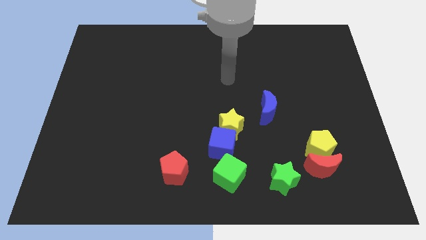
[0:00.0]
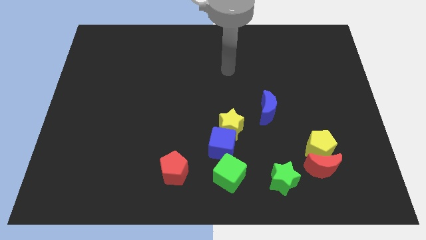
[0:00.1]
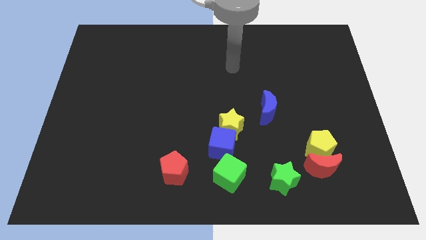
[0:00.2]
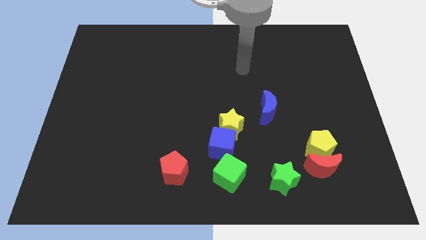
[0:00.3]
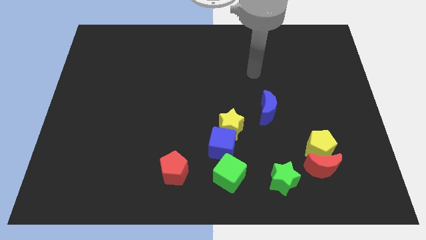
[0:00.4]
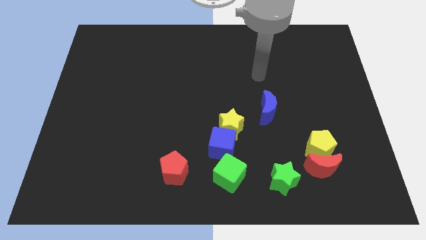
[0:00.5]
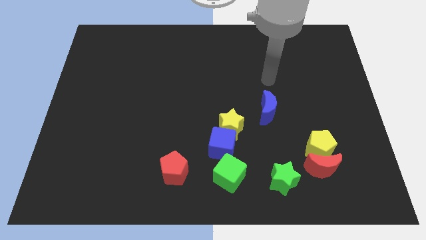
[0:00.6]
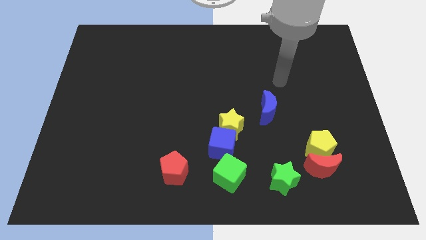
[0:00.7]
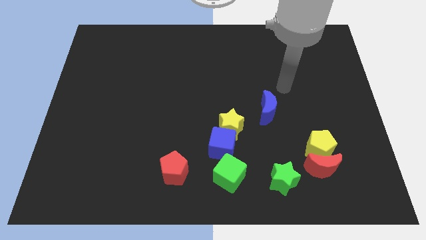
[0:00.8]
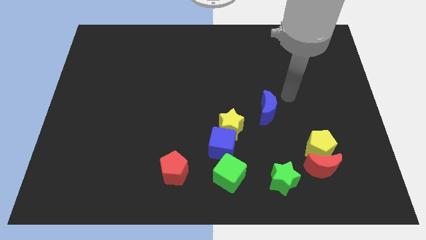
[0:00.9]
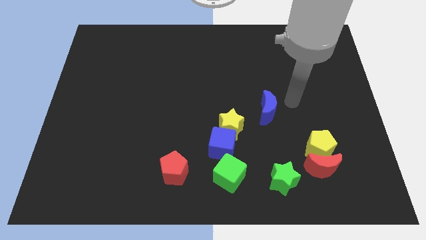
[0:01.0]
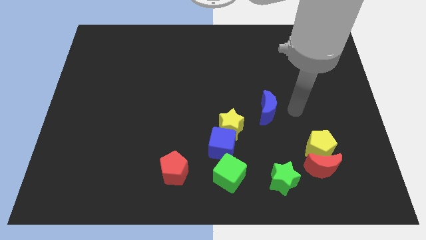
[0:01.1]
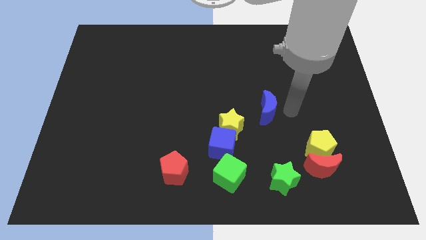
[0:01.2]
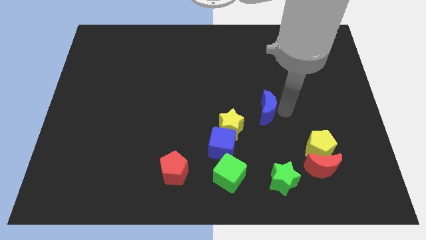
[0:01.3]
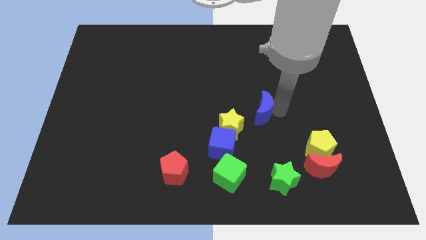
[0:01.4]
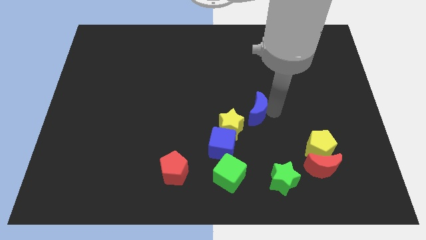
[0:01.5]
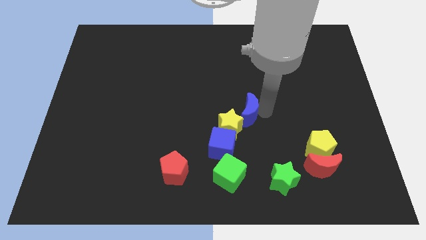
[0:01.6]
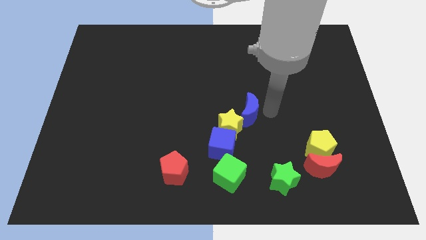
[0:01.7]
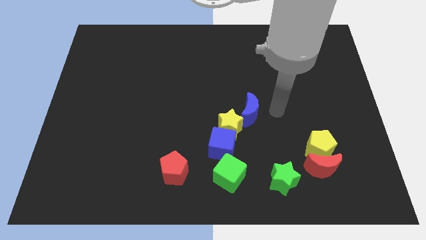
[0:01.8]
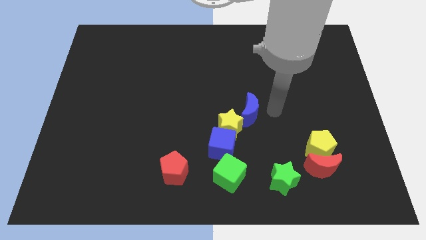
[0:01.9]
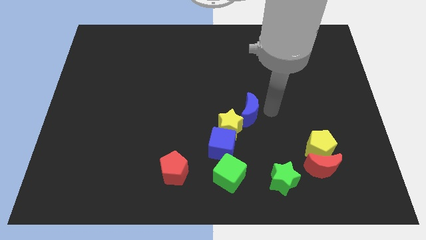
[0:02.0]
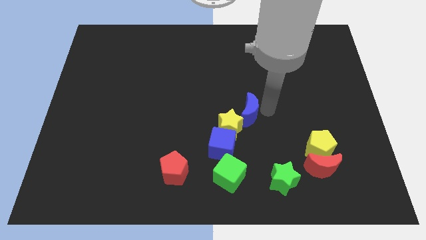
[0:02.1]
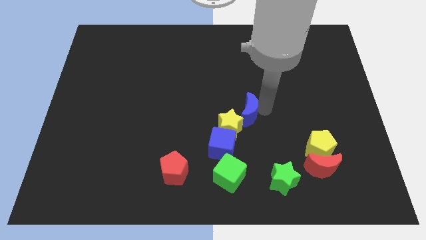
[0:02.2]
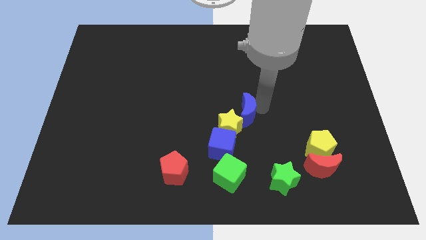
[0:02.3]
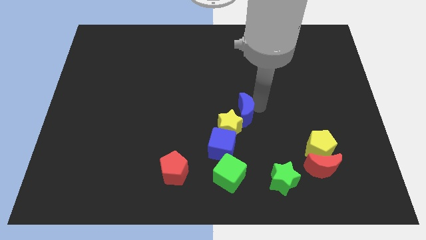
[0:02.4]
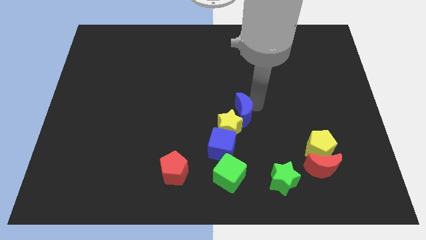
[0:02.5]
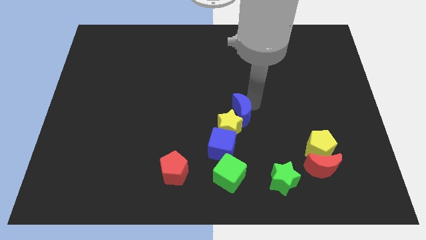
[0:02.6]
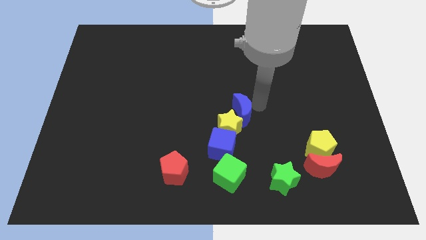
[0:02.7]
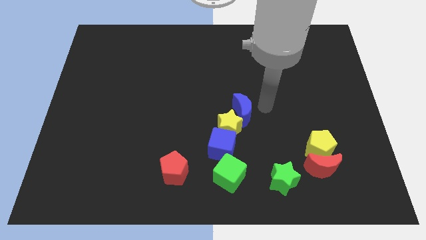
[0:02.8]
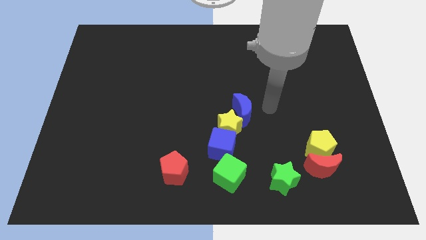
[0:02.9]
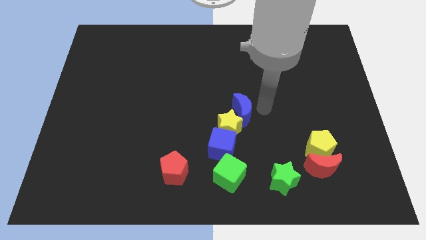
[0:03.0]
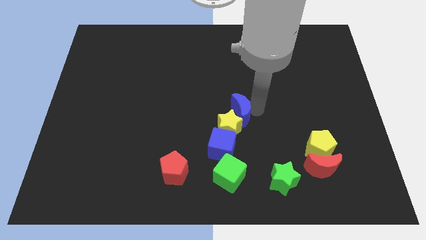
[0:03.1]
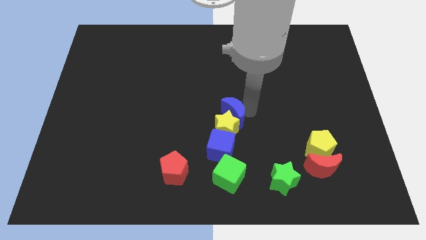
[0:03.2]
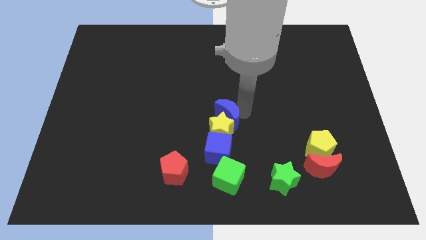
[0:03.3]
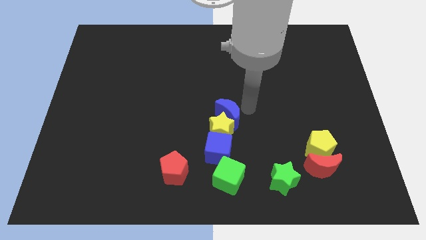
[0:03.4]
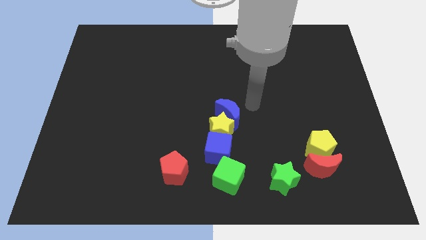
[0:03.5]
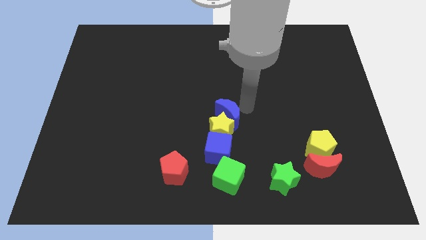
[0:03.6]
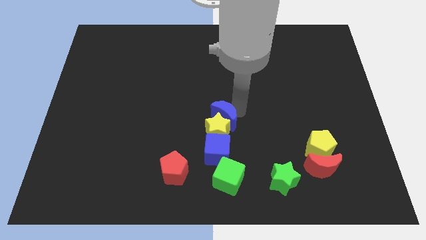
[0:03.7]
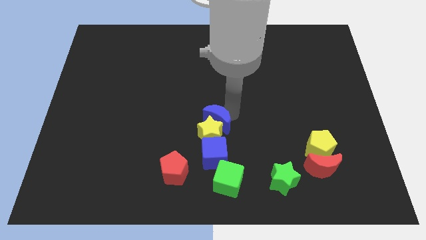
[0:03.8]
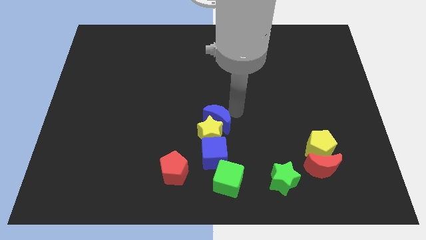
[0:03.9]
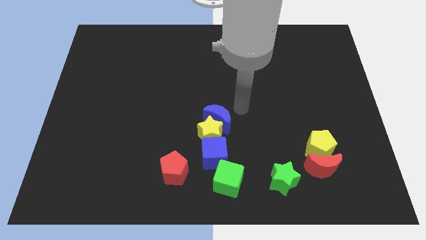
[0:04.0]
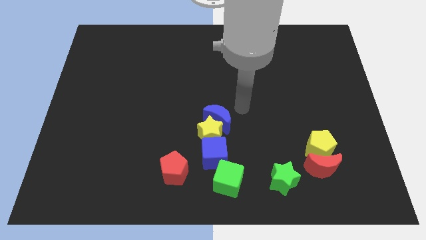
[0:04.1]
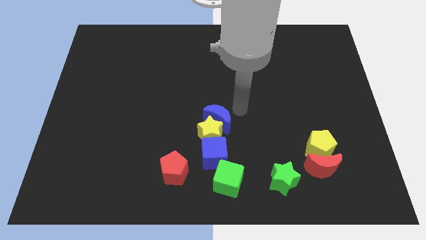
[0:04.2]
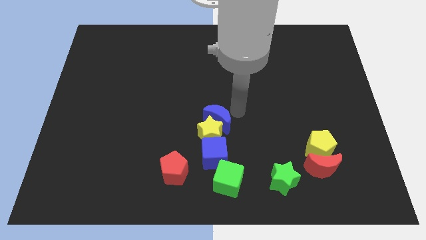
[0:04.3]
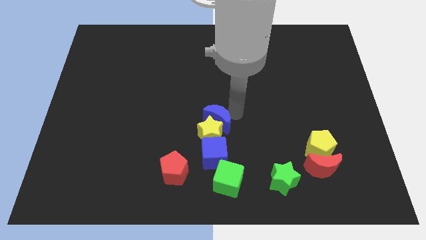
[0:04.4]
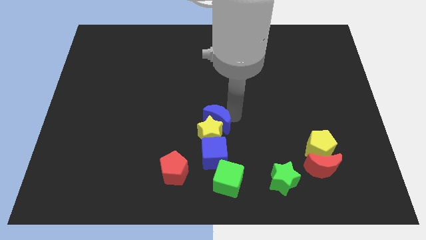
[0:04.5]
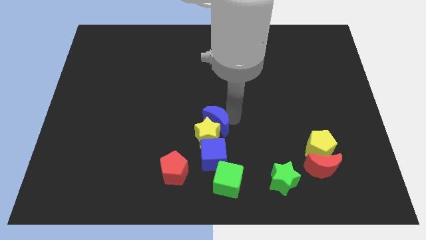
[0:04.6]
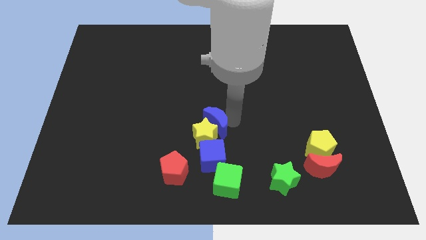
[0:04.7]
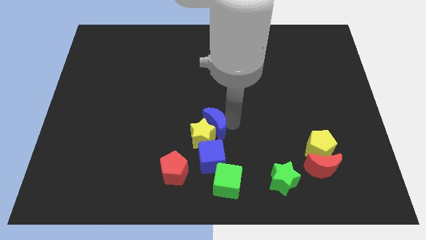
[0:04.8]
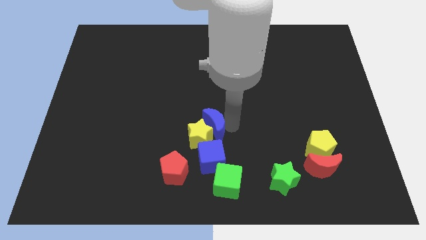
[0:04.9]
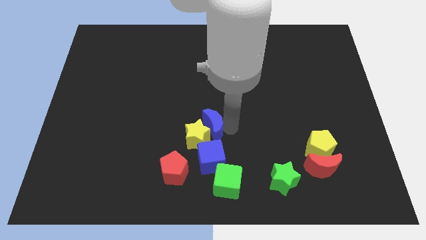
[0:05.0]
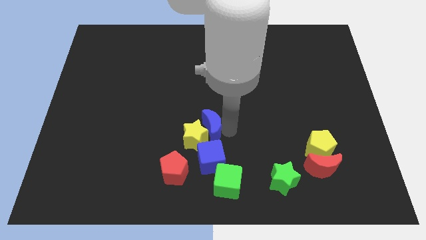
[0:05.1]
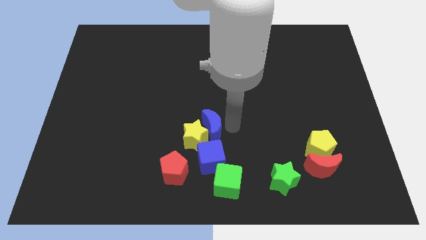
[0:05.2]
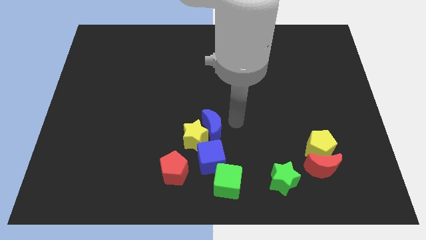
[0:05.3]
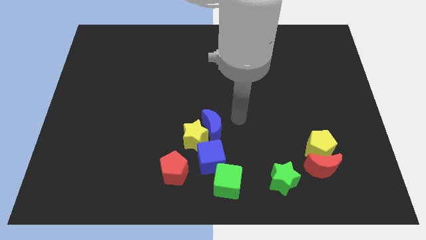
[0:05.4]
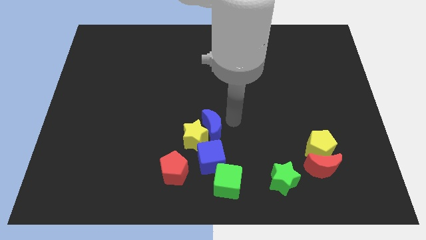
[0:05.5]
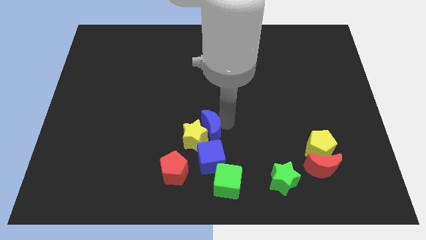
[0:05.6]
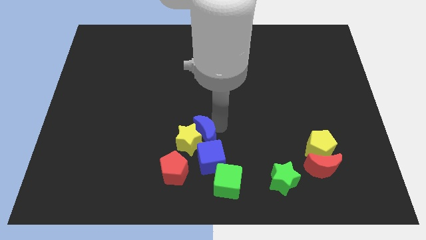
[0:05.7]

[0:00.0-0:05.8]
move the blue moon to the top left of the blue cube

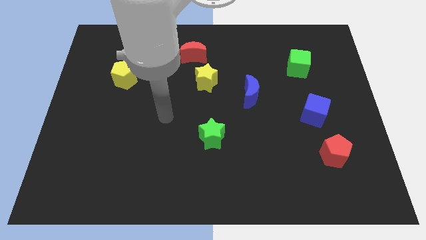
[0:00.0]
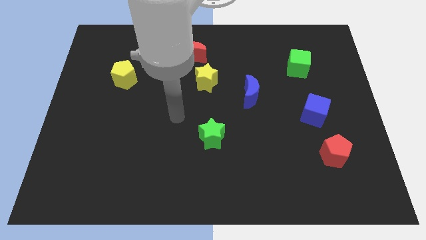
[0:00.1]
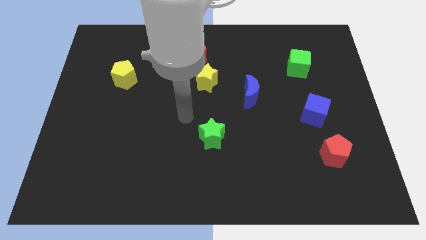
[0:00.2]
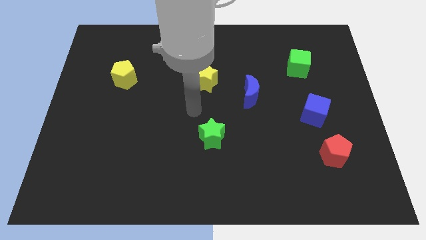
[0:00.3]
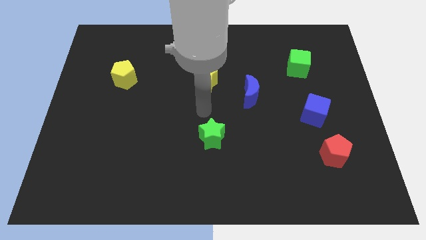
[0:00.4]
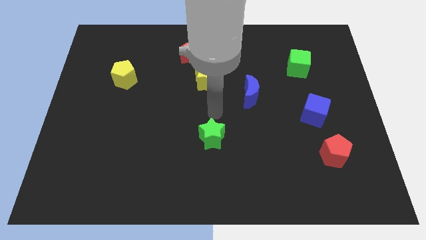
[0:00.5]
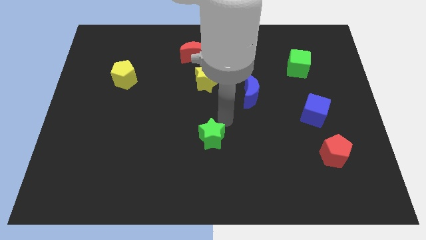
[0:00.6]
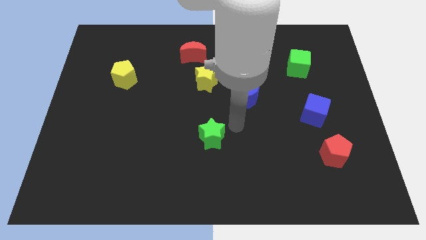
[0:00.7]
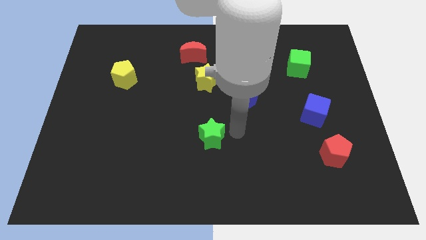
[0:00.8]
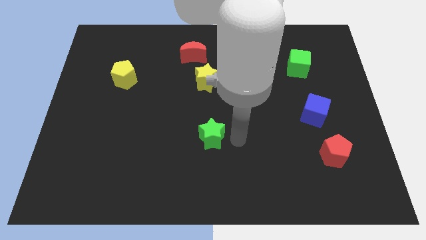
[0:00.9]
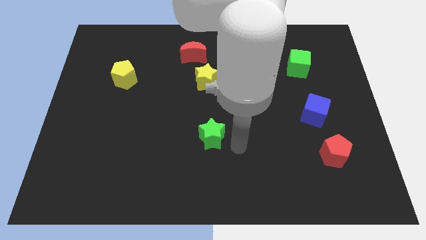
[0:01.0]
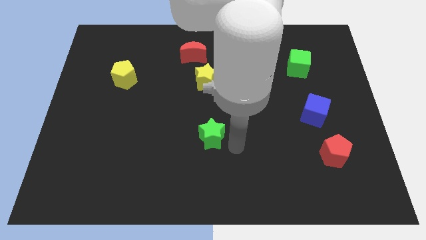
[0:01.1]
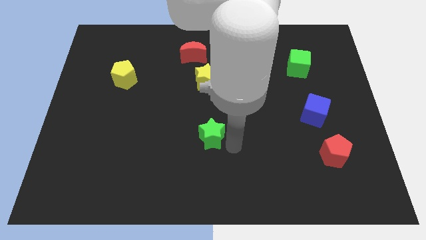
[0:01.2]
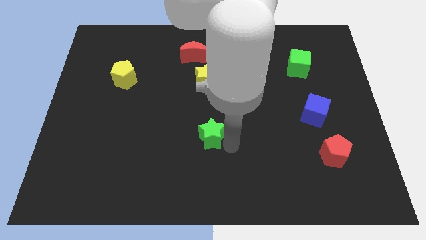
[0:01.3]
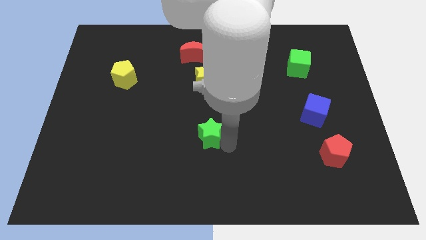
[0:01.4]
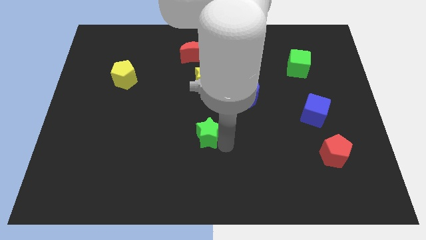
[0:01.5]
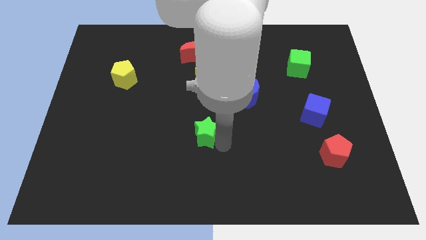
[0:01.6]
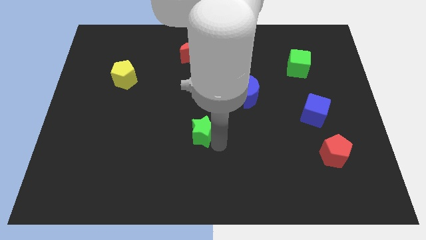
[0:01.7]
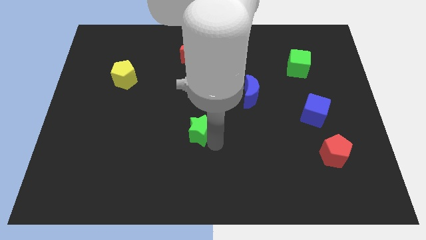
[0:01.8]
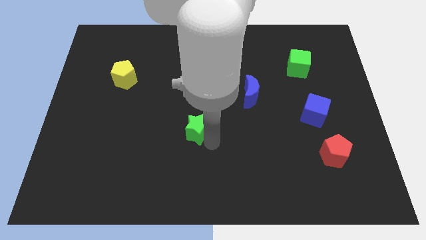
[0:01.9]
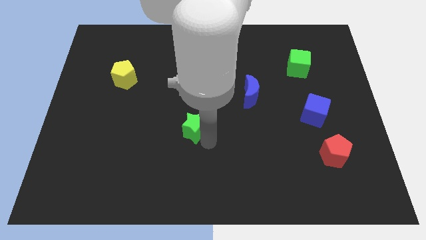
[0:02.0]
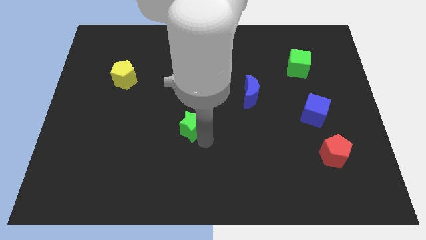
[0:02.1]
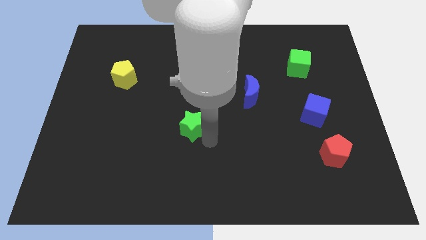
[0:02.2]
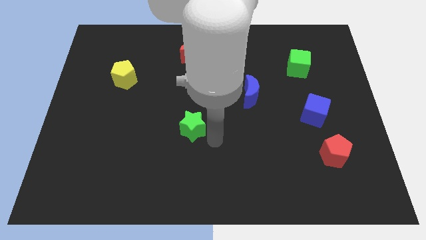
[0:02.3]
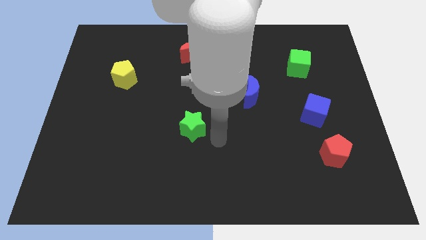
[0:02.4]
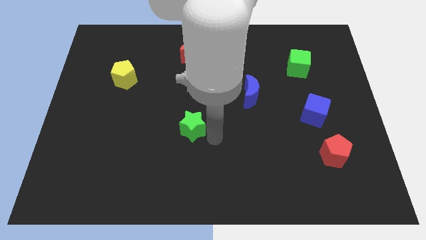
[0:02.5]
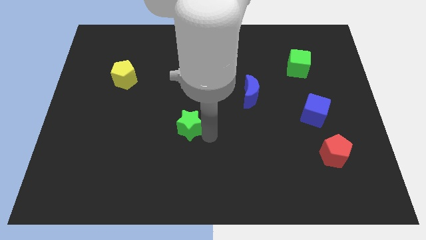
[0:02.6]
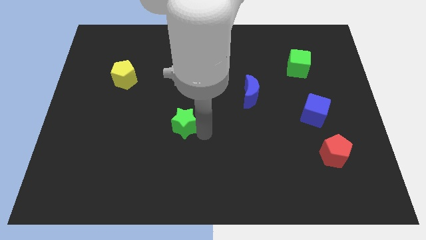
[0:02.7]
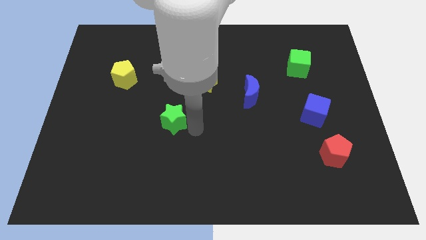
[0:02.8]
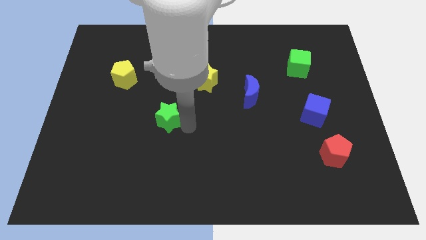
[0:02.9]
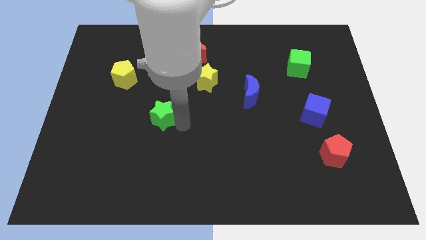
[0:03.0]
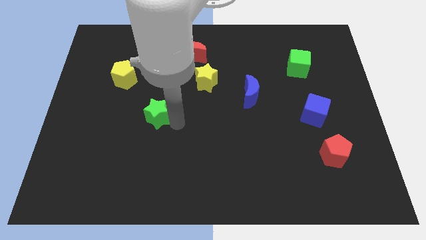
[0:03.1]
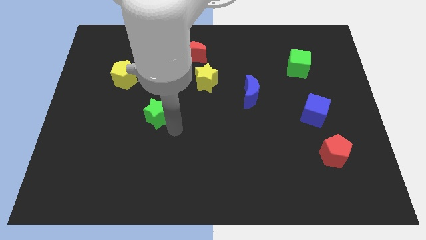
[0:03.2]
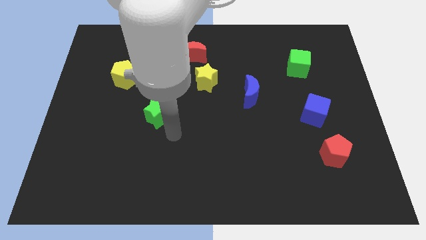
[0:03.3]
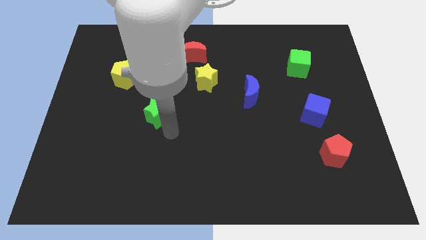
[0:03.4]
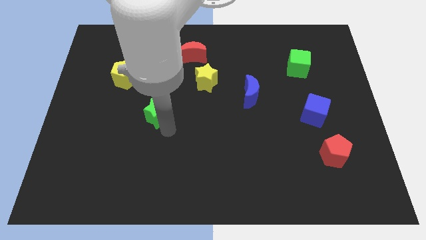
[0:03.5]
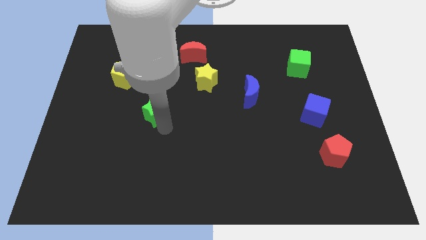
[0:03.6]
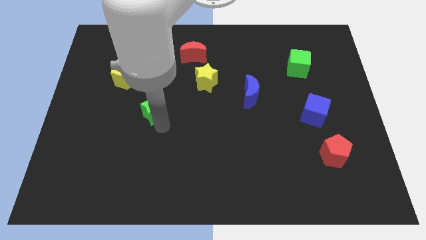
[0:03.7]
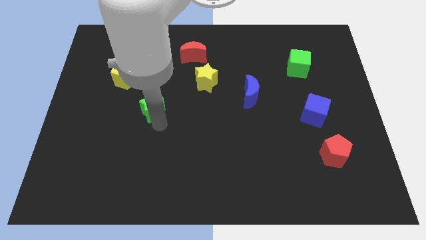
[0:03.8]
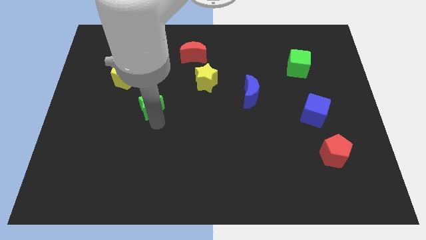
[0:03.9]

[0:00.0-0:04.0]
slide the green star to the bottom right side of the yellow pentagon
